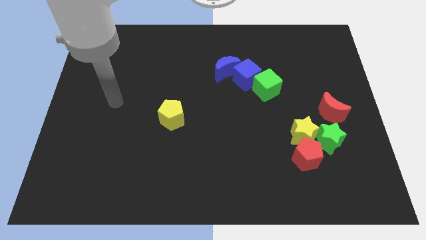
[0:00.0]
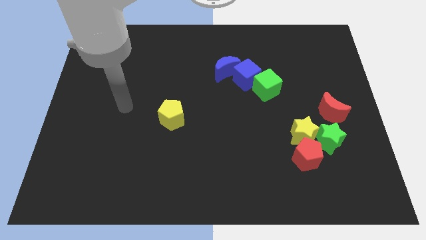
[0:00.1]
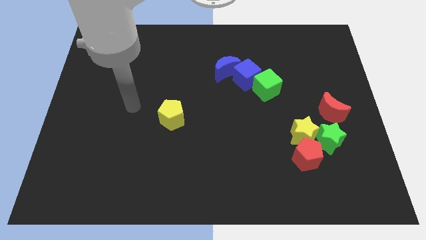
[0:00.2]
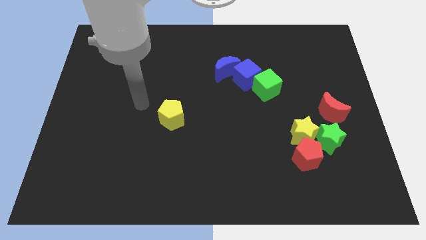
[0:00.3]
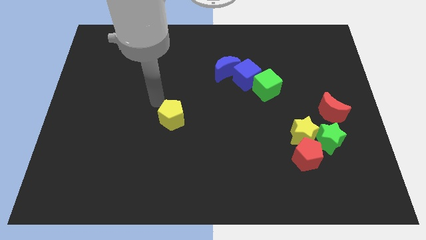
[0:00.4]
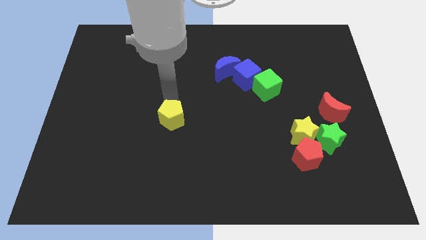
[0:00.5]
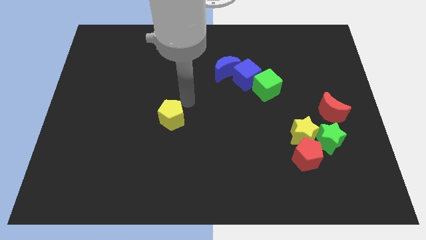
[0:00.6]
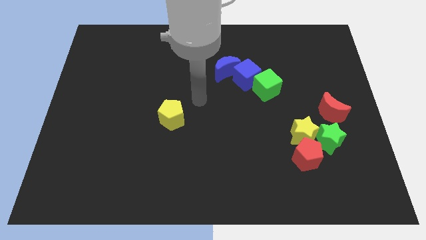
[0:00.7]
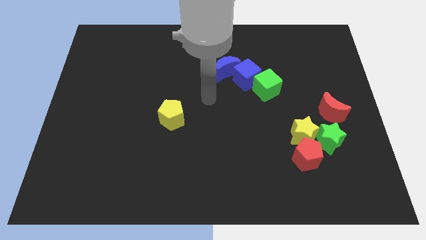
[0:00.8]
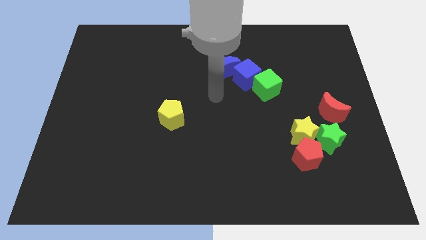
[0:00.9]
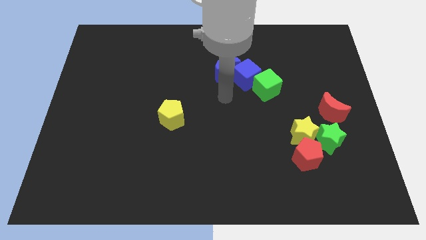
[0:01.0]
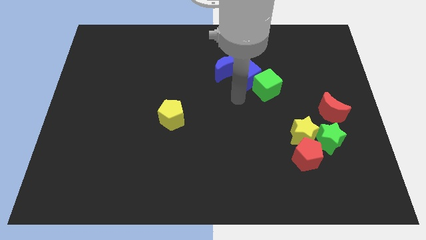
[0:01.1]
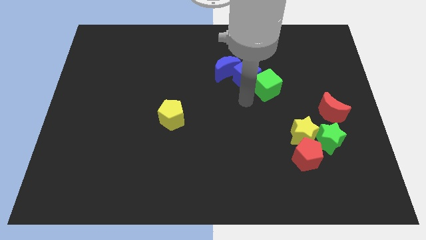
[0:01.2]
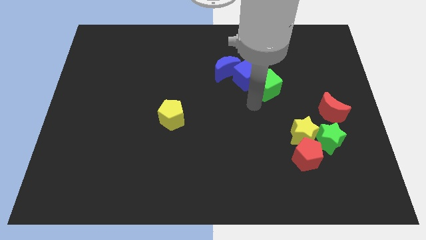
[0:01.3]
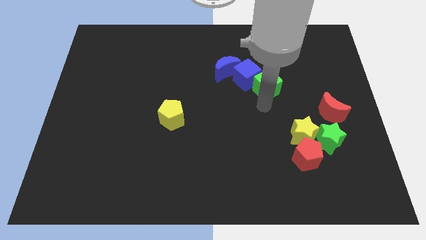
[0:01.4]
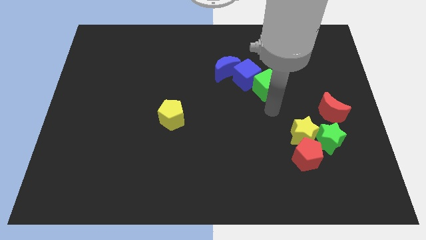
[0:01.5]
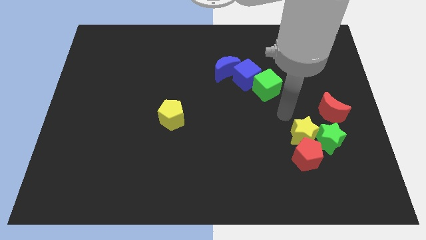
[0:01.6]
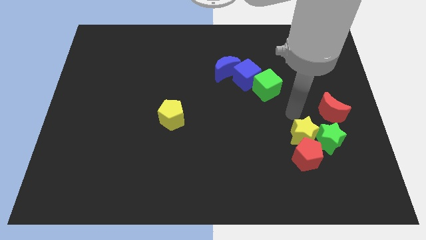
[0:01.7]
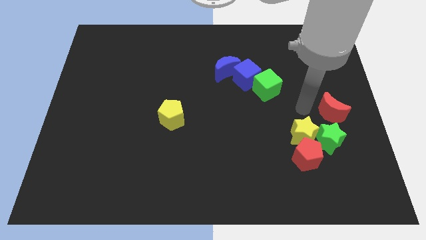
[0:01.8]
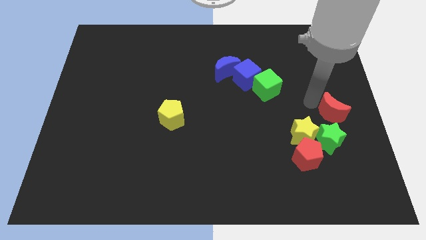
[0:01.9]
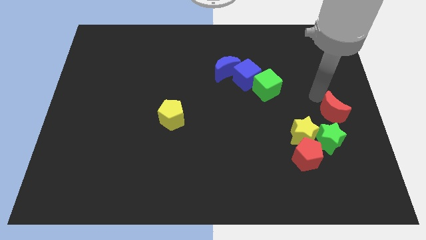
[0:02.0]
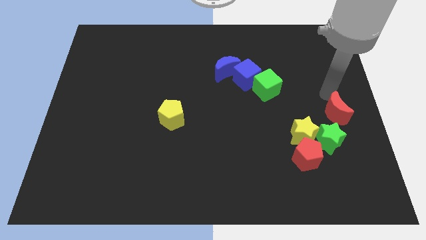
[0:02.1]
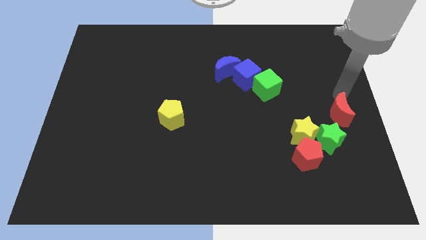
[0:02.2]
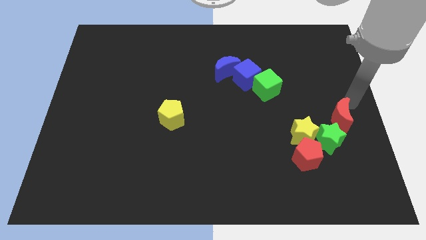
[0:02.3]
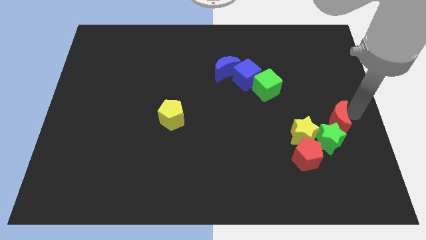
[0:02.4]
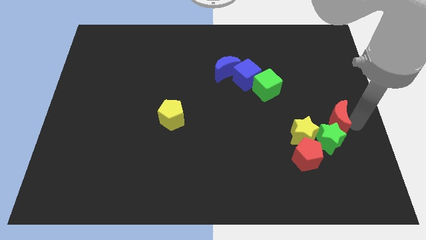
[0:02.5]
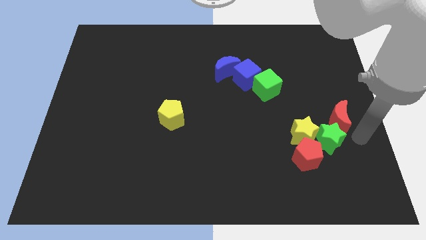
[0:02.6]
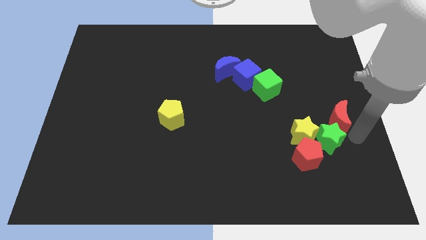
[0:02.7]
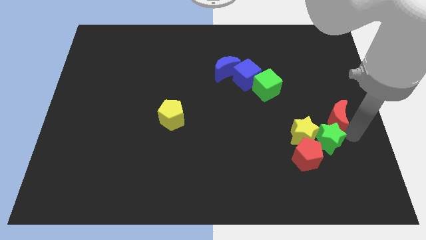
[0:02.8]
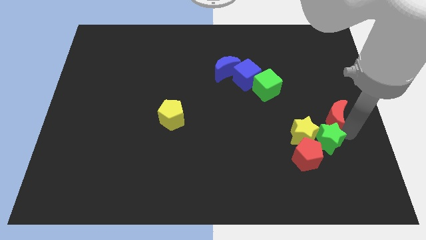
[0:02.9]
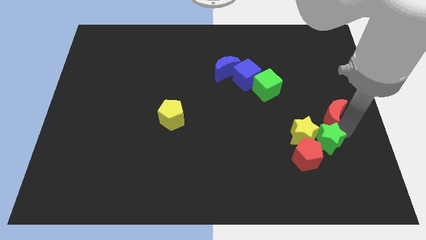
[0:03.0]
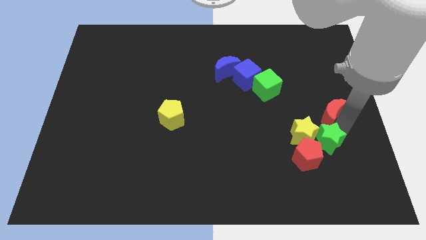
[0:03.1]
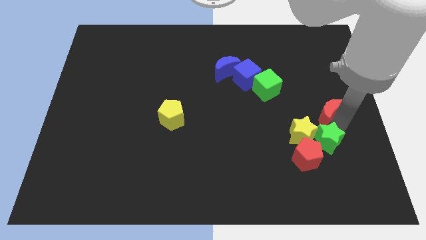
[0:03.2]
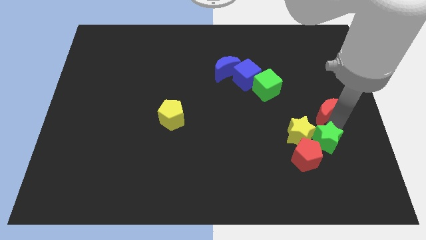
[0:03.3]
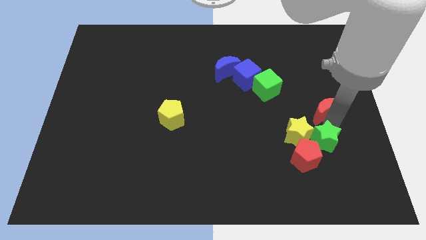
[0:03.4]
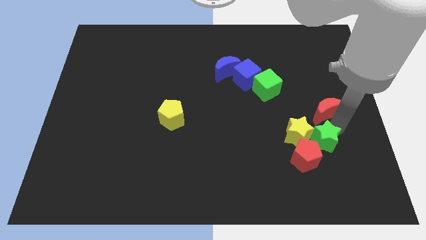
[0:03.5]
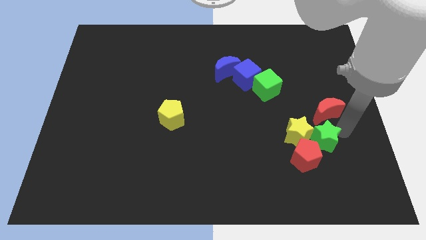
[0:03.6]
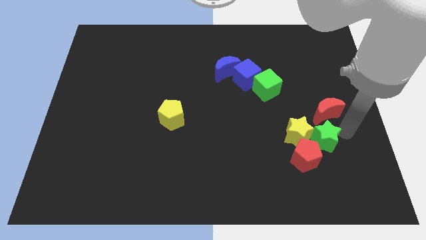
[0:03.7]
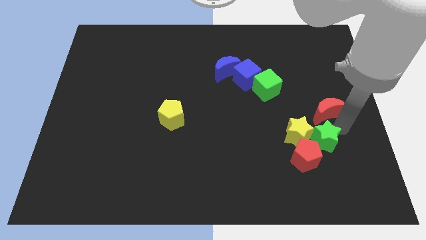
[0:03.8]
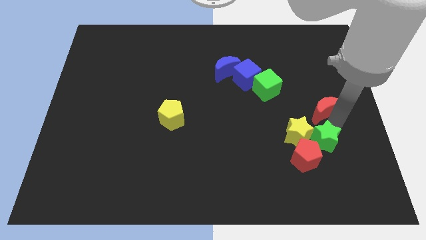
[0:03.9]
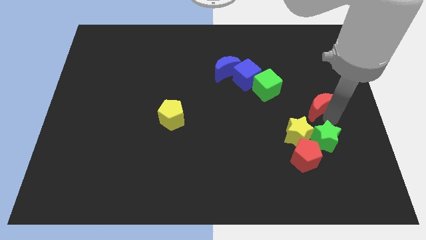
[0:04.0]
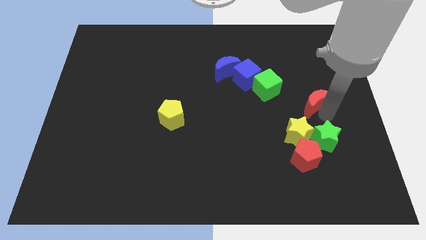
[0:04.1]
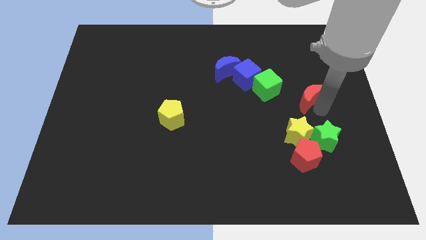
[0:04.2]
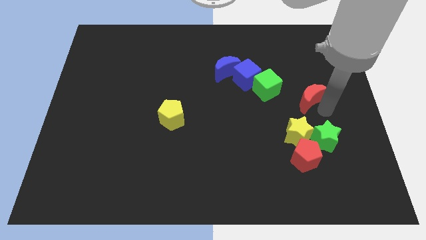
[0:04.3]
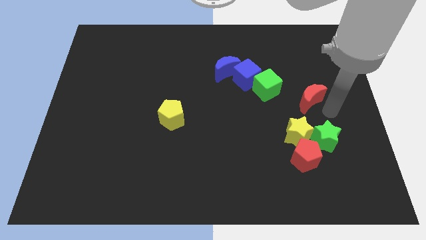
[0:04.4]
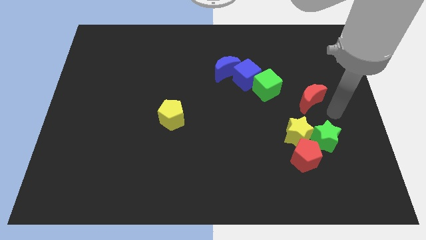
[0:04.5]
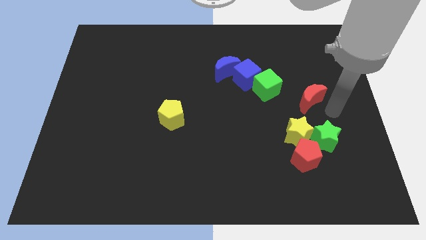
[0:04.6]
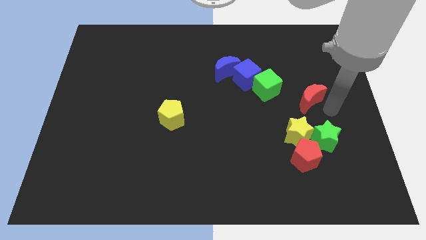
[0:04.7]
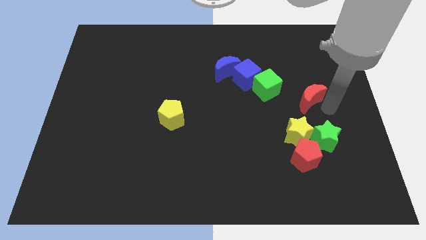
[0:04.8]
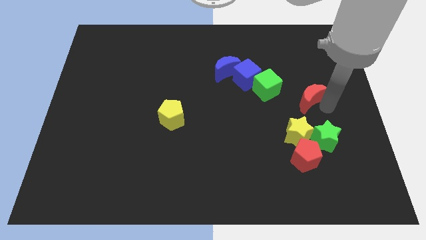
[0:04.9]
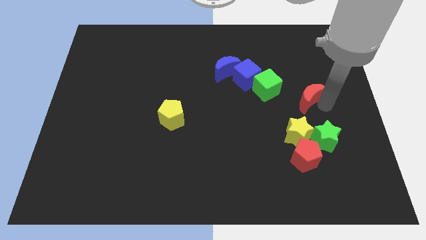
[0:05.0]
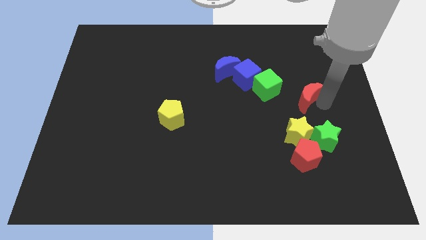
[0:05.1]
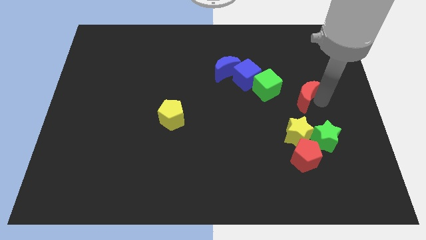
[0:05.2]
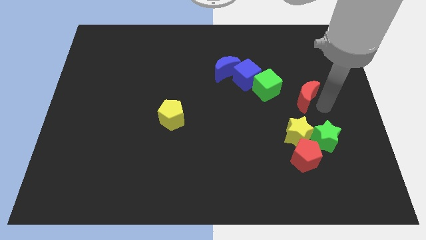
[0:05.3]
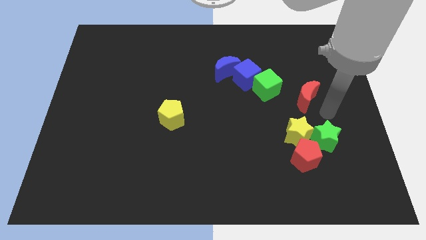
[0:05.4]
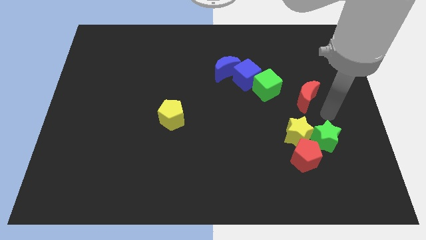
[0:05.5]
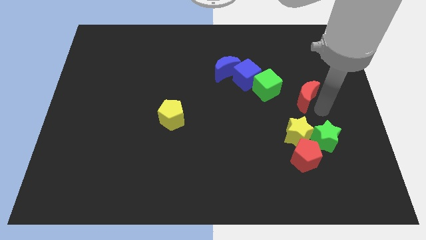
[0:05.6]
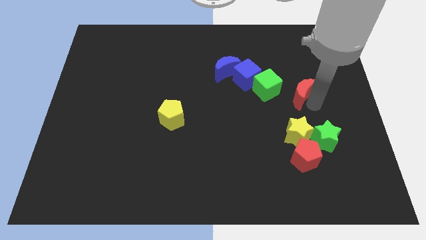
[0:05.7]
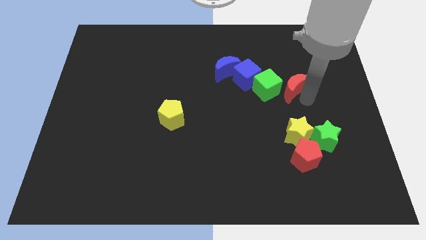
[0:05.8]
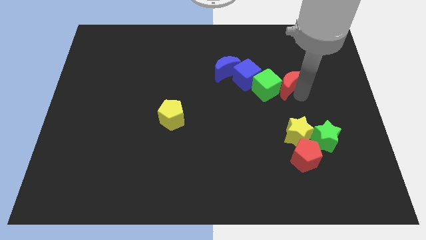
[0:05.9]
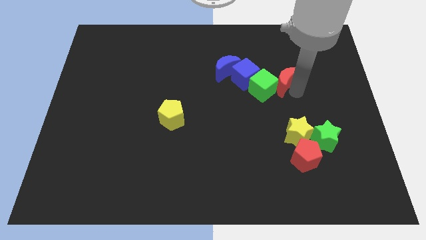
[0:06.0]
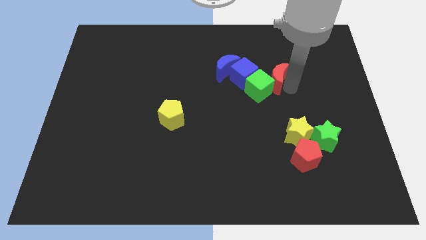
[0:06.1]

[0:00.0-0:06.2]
put the red moon just right of the blue moon

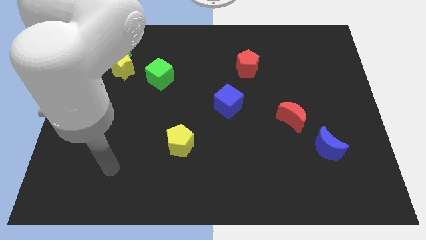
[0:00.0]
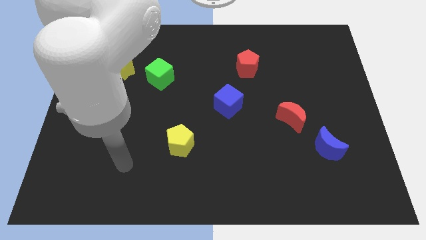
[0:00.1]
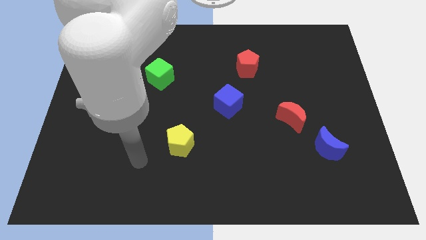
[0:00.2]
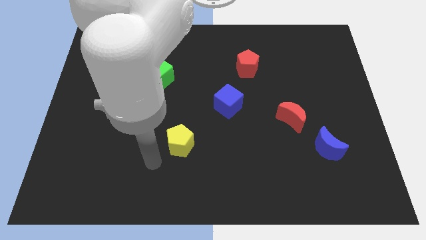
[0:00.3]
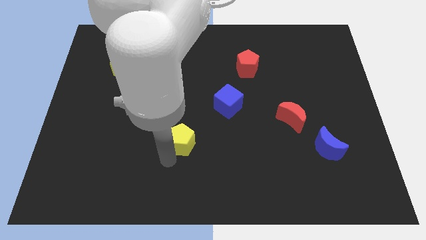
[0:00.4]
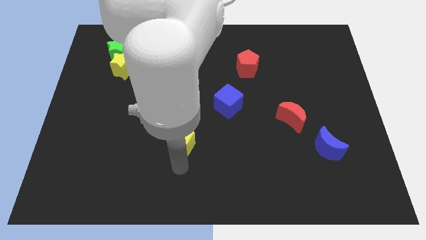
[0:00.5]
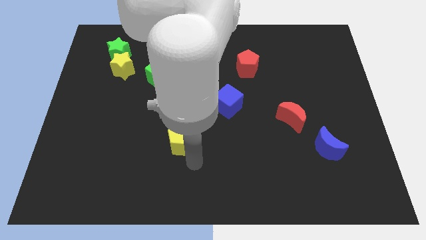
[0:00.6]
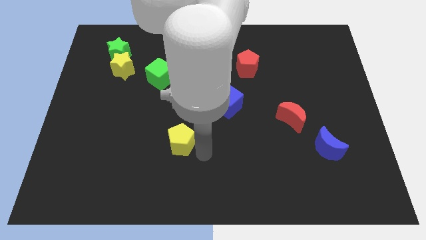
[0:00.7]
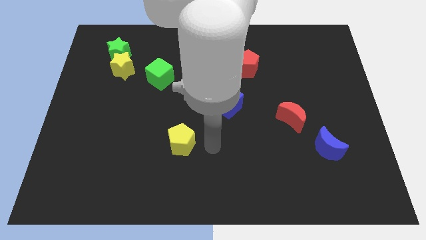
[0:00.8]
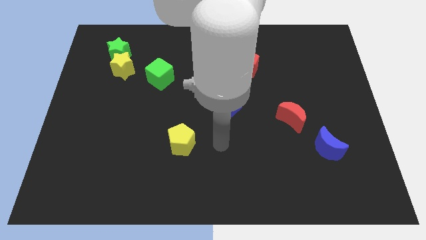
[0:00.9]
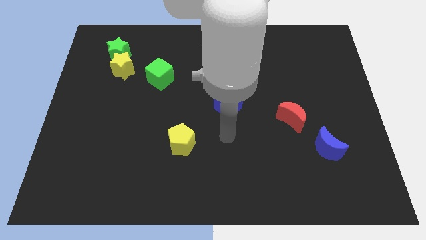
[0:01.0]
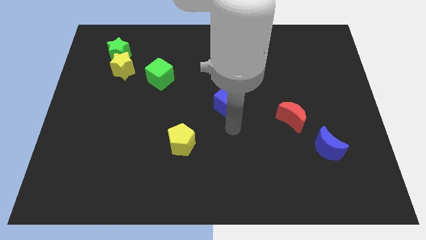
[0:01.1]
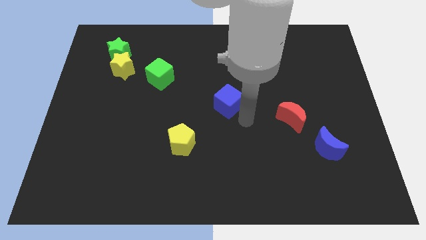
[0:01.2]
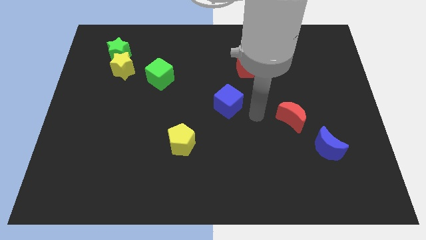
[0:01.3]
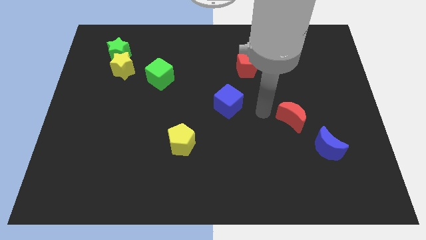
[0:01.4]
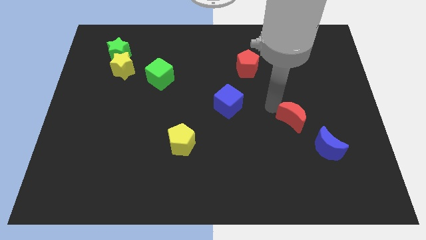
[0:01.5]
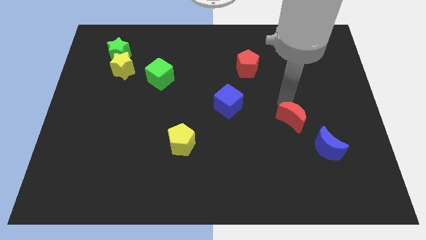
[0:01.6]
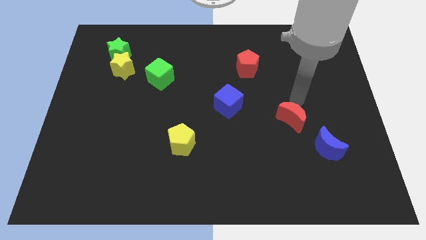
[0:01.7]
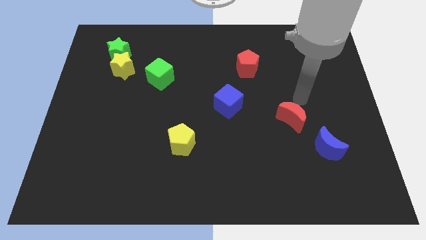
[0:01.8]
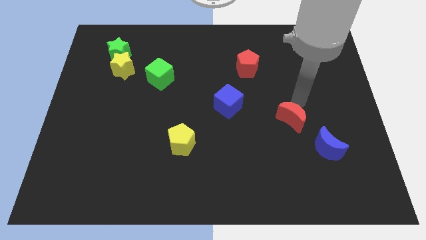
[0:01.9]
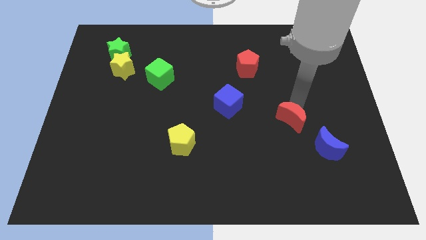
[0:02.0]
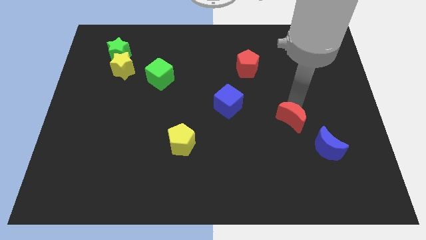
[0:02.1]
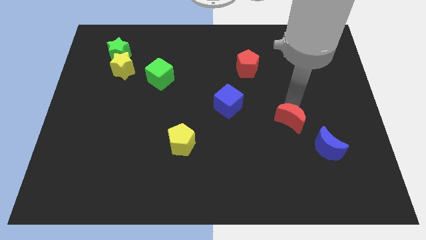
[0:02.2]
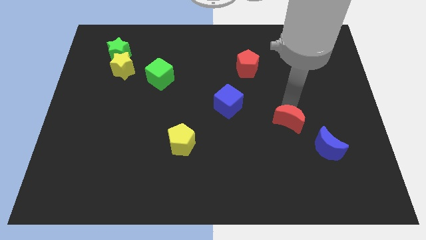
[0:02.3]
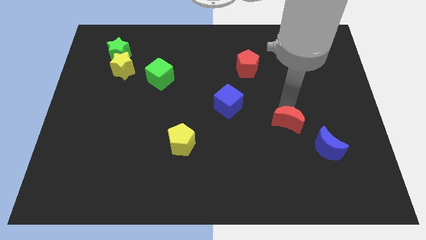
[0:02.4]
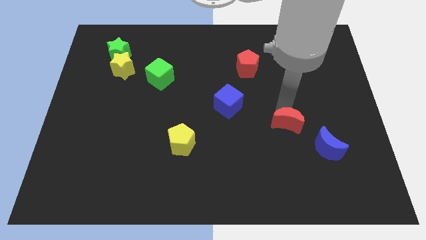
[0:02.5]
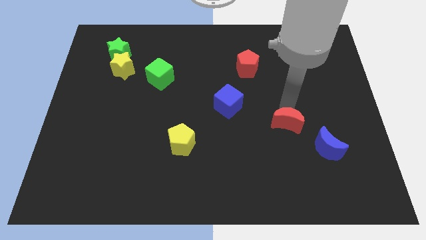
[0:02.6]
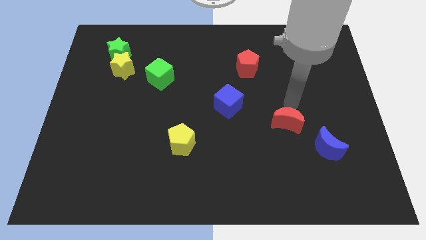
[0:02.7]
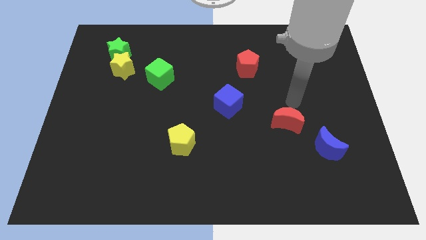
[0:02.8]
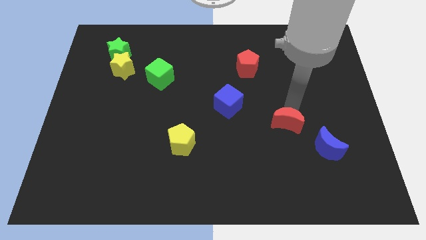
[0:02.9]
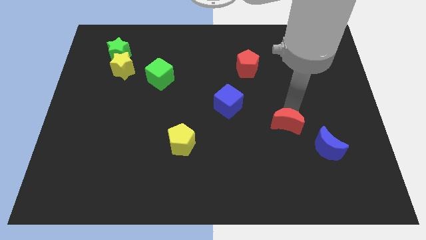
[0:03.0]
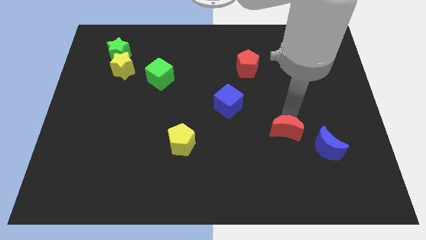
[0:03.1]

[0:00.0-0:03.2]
slide the red moon just left of the blue moon
